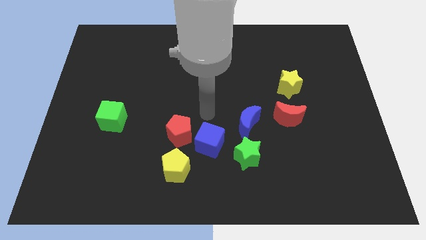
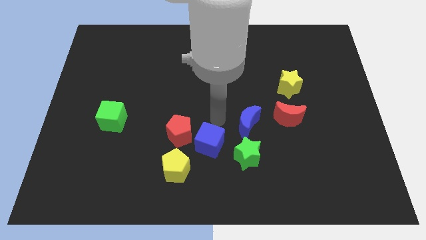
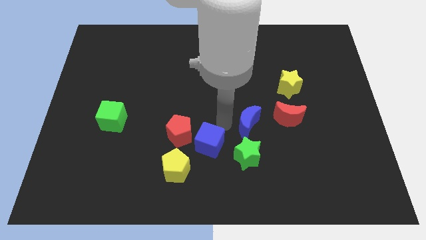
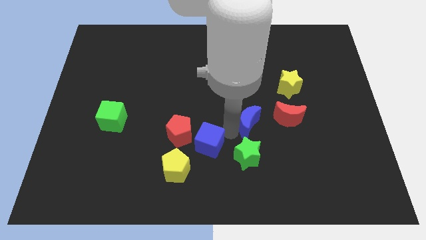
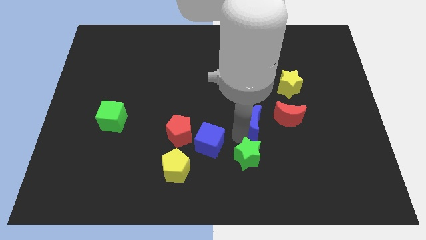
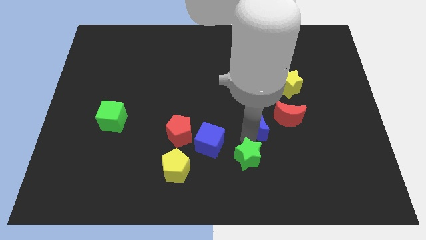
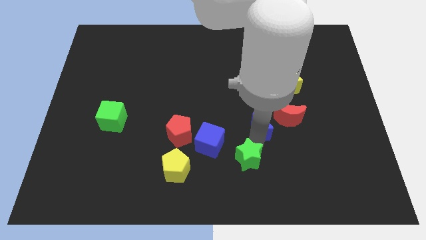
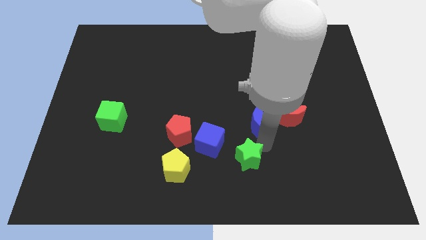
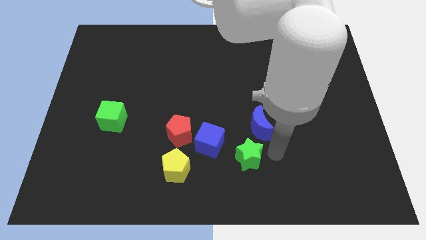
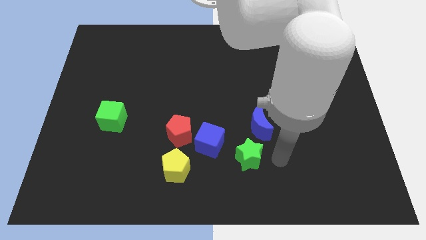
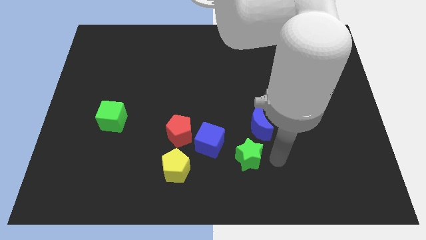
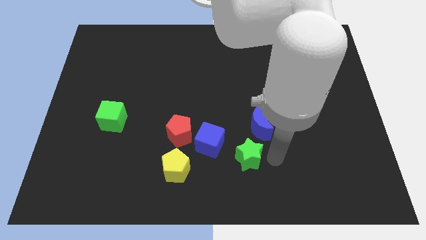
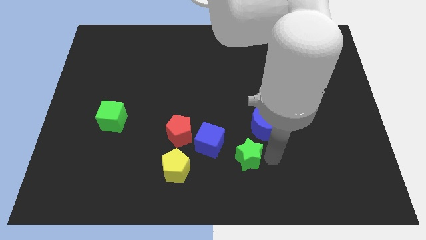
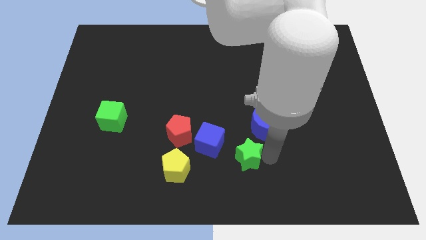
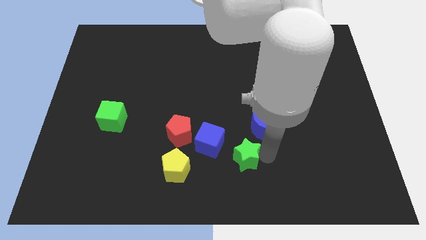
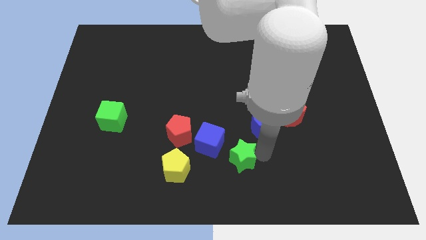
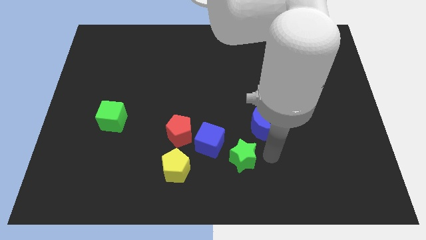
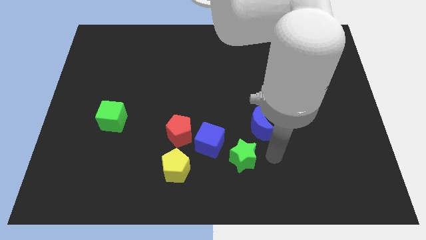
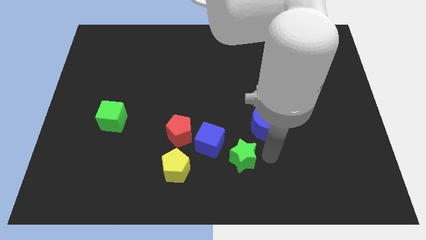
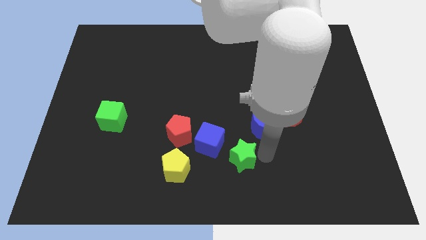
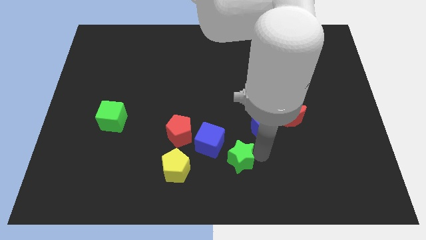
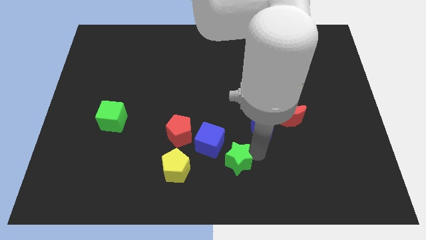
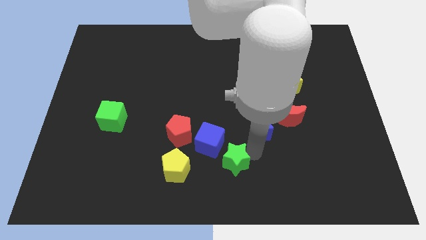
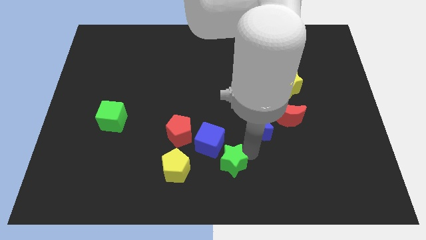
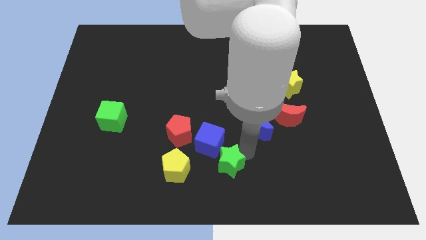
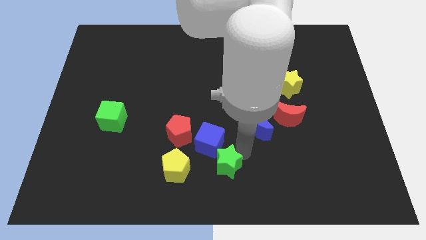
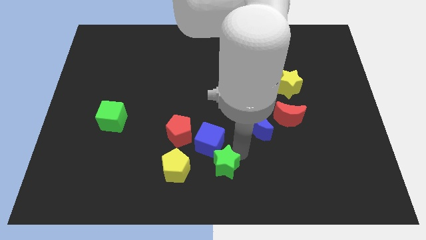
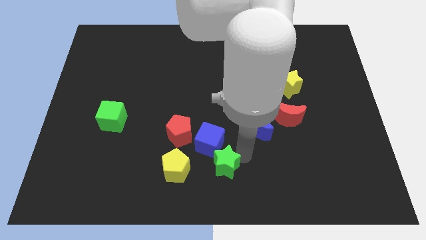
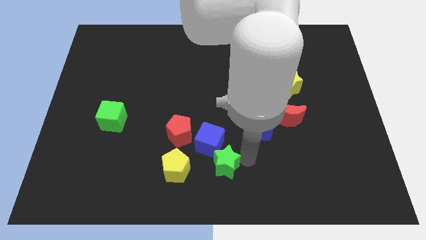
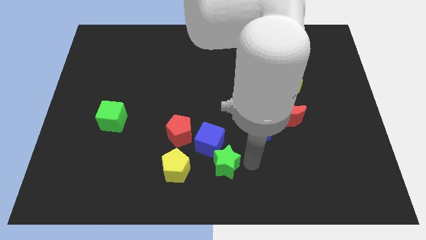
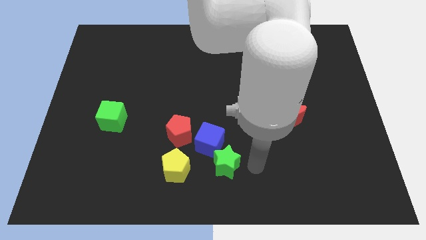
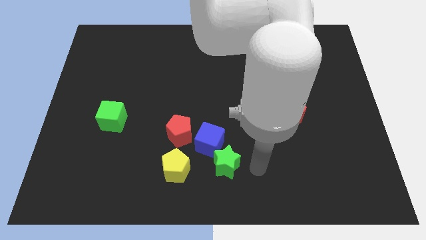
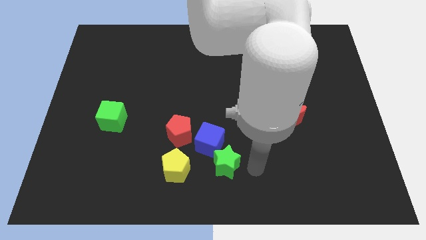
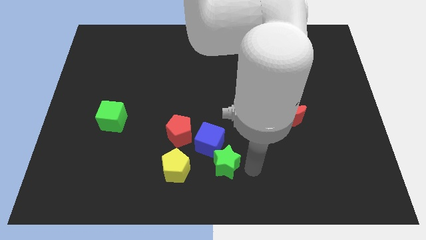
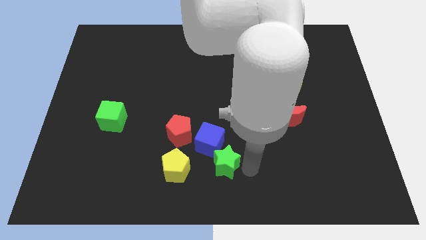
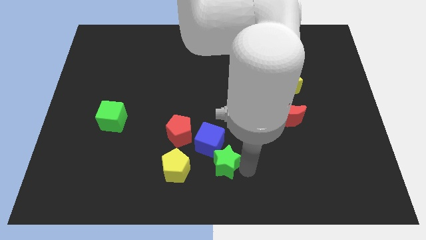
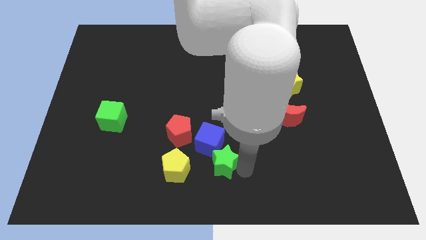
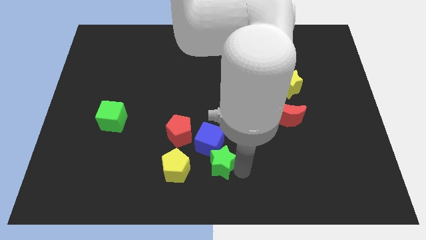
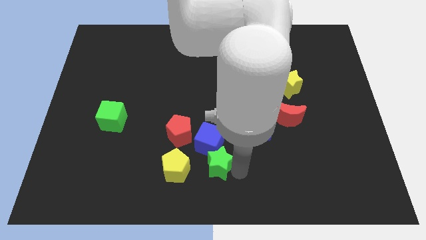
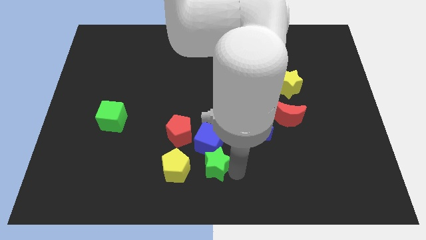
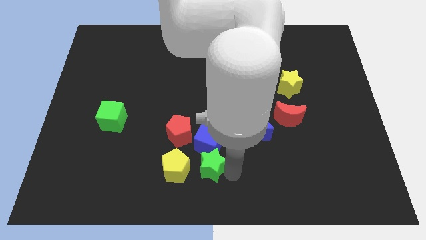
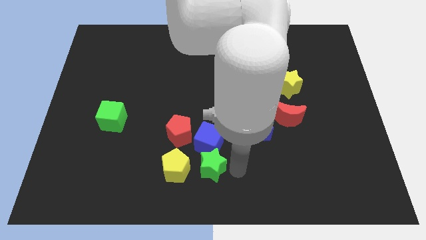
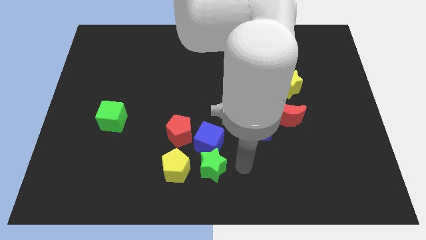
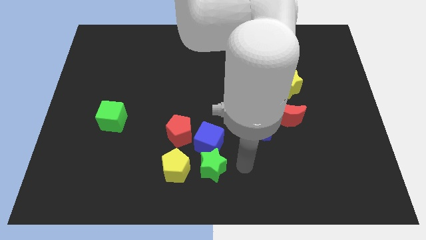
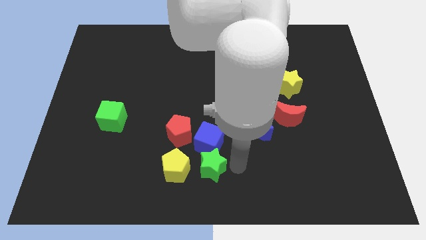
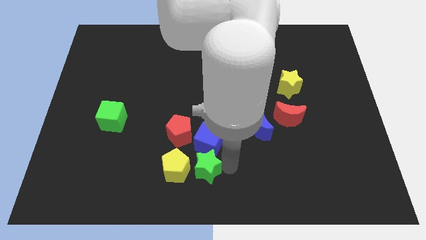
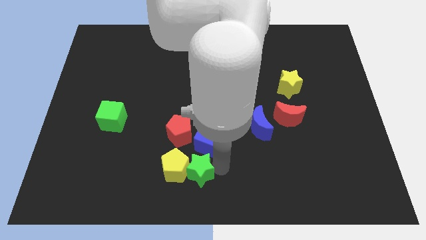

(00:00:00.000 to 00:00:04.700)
push the green star close to the yellow pentagon

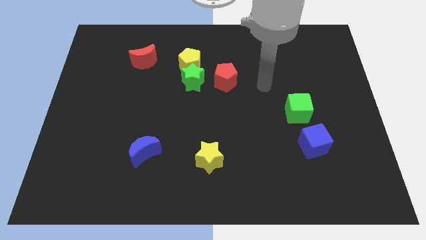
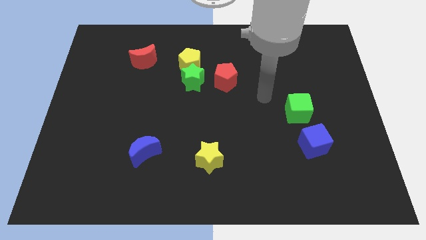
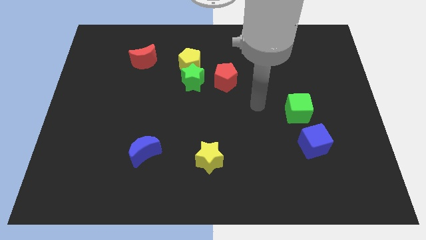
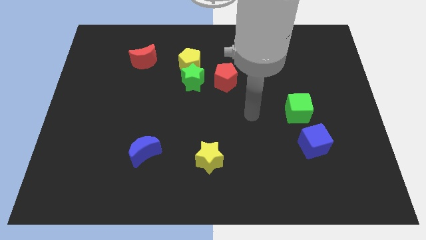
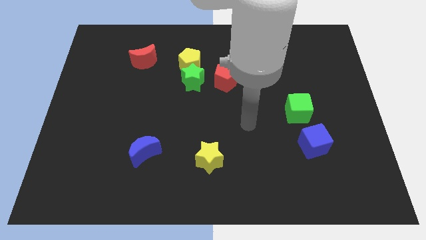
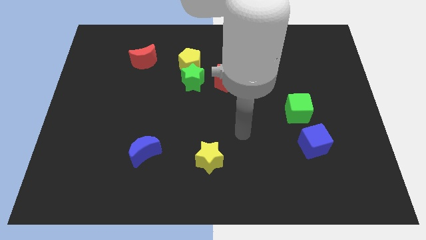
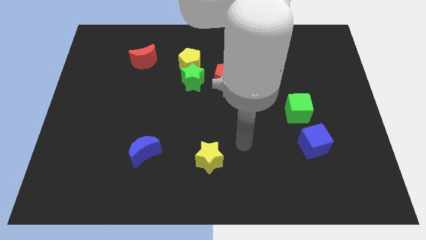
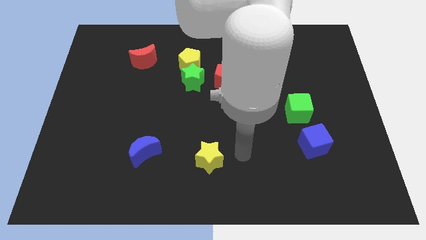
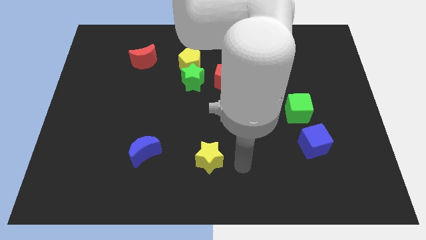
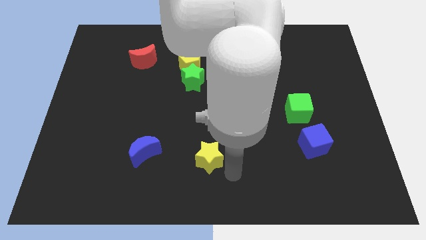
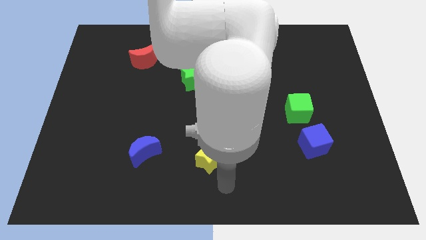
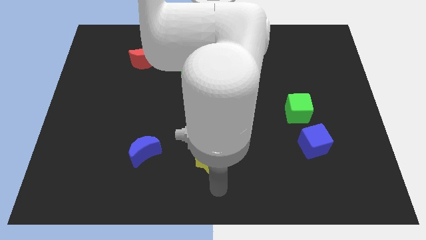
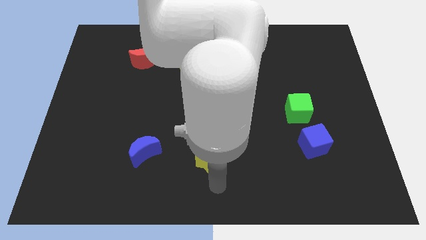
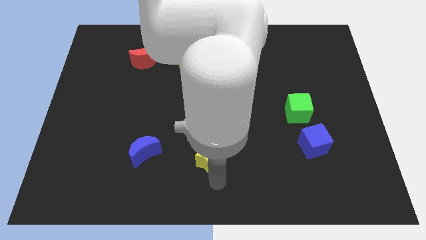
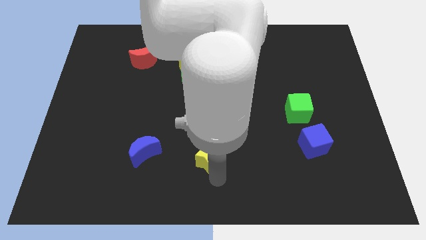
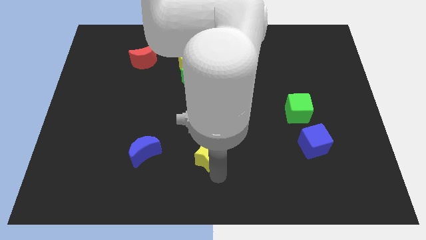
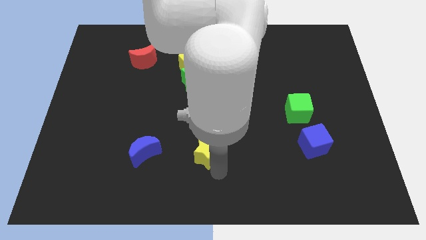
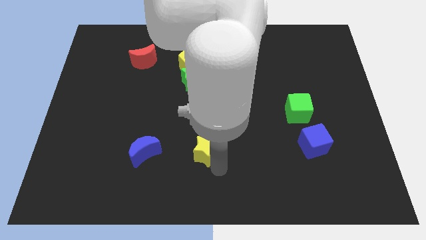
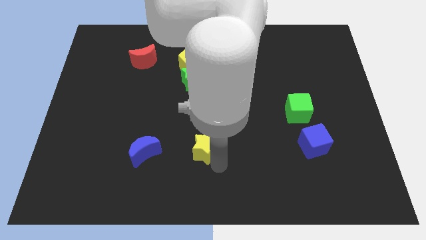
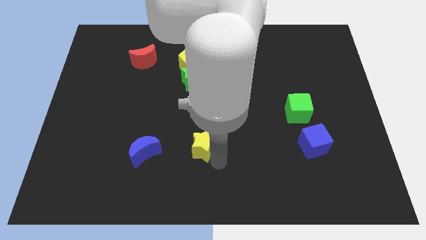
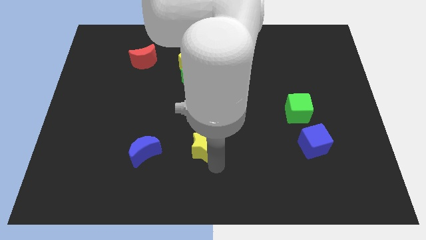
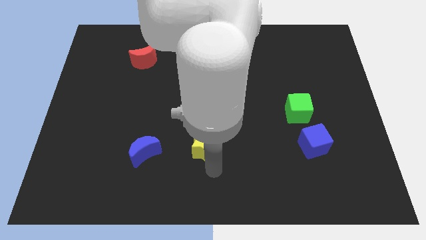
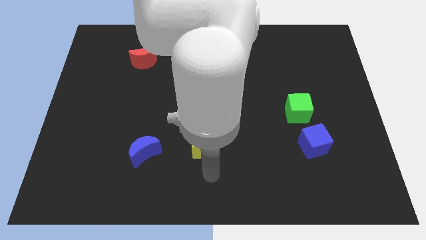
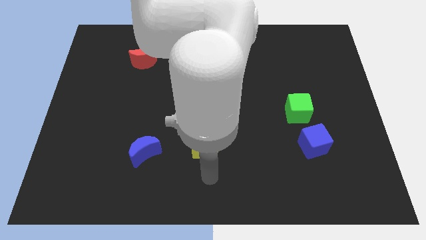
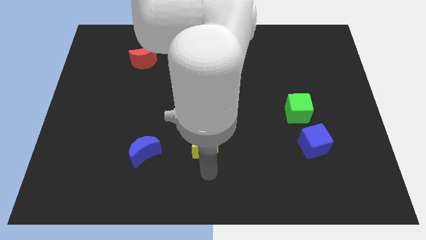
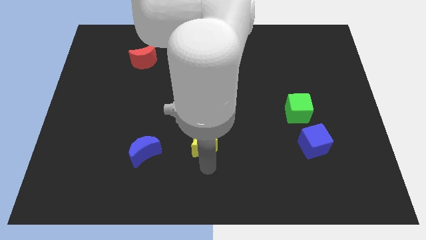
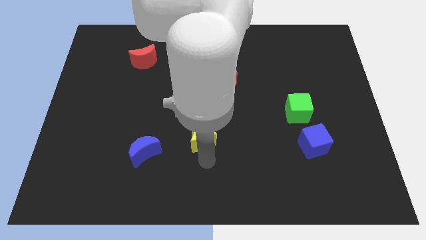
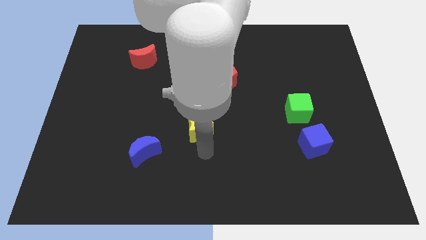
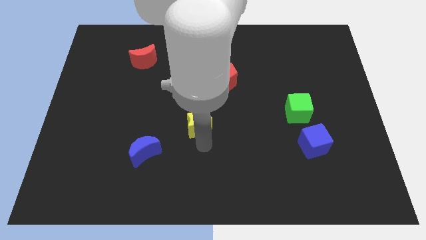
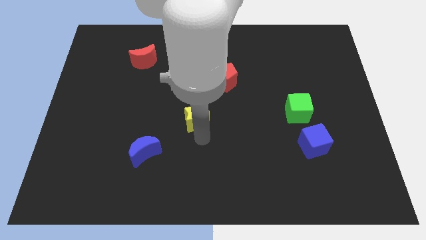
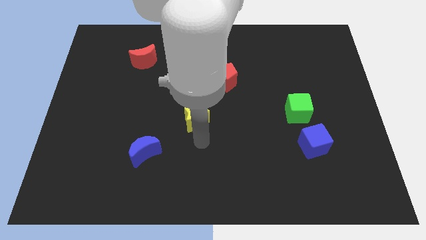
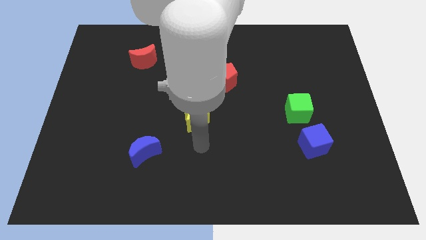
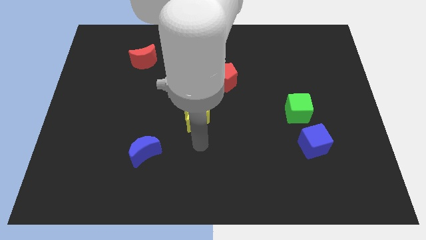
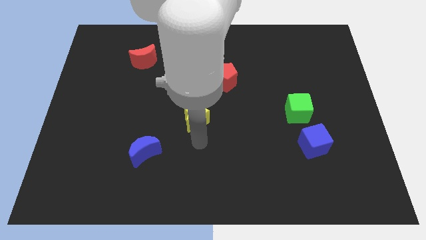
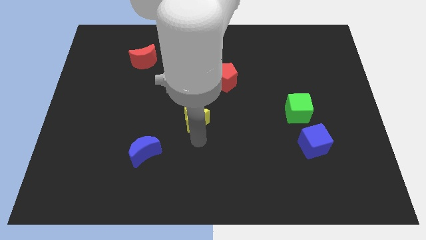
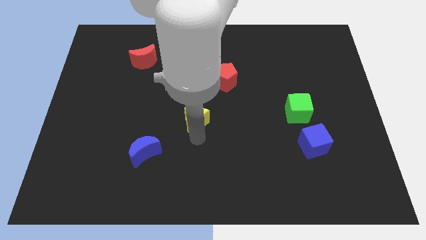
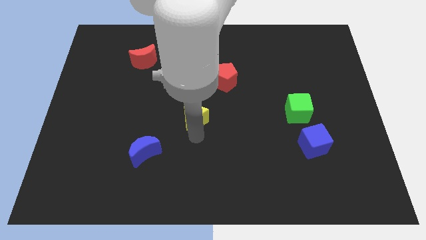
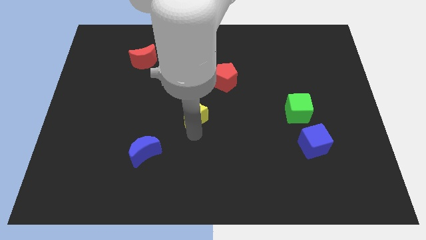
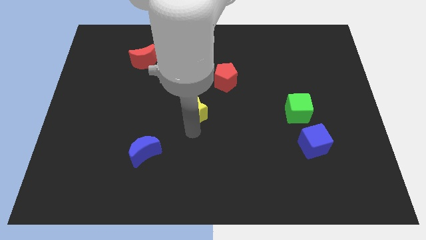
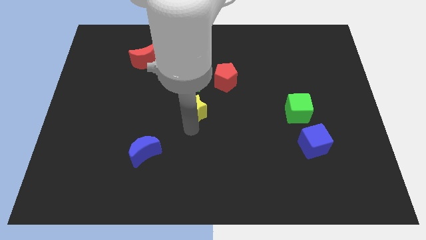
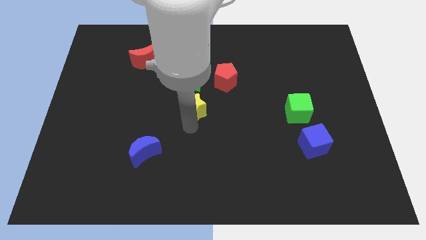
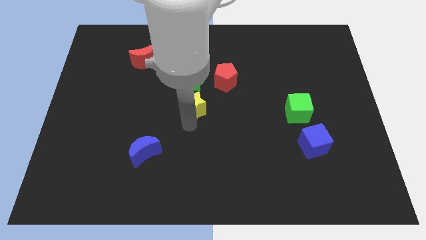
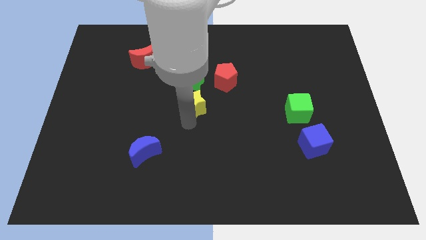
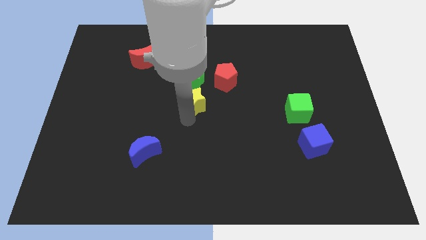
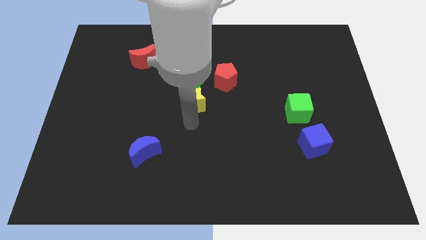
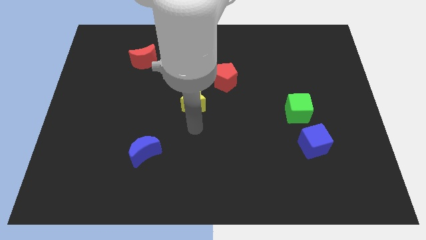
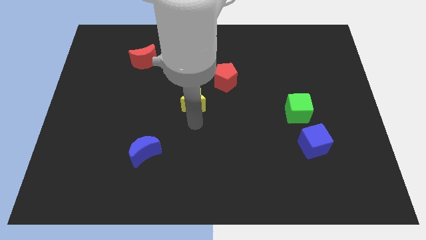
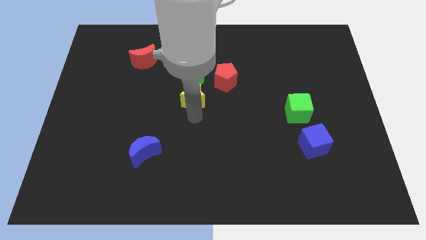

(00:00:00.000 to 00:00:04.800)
move the yellow star towards the green star
